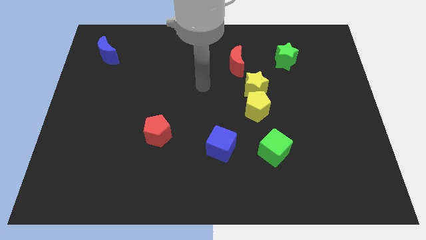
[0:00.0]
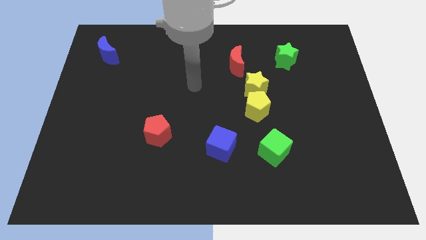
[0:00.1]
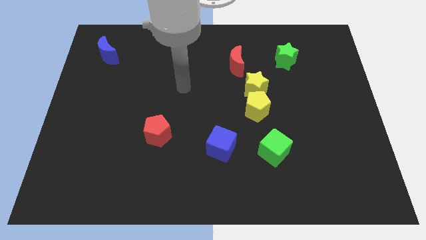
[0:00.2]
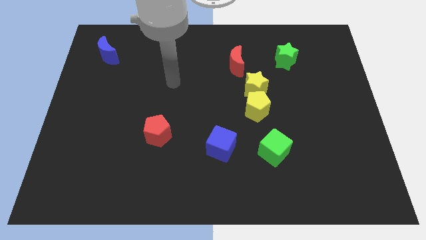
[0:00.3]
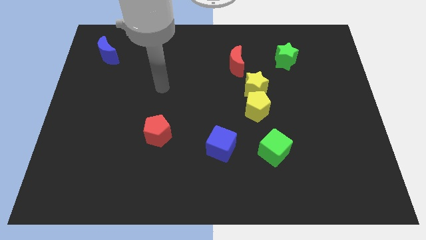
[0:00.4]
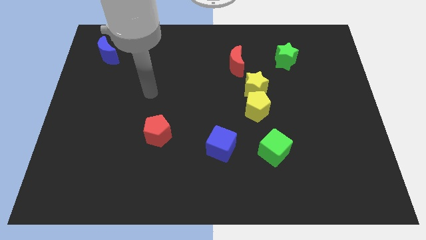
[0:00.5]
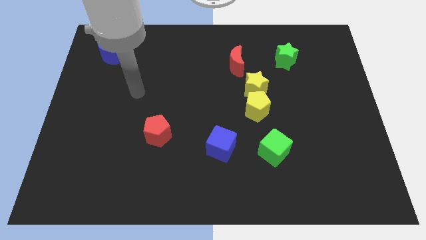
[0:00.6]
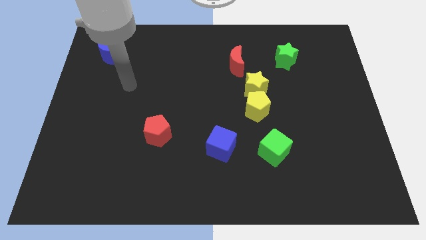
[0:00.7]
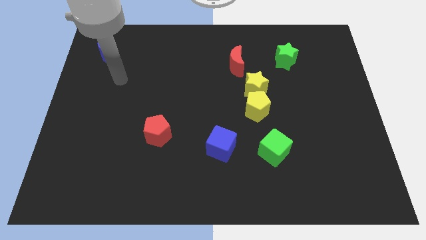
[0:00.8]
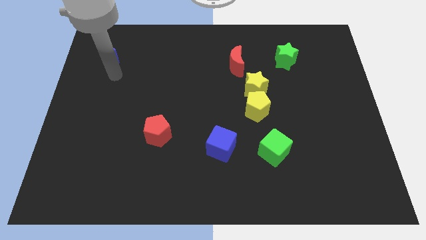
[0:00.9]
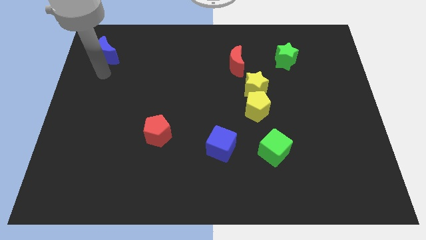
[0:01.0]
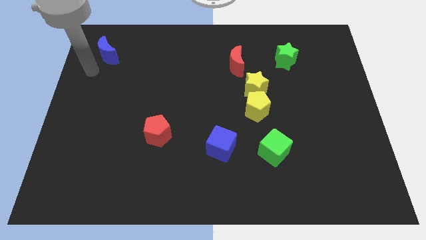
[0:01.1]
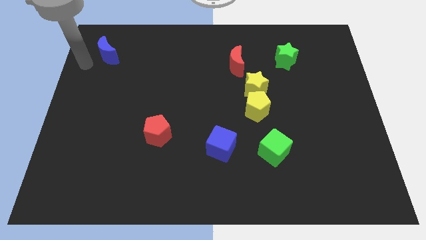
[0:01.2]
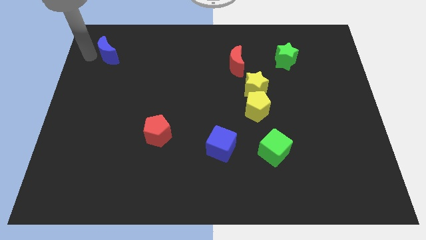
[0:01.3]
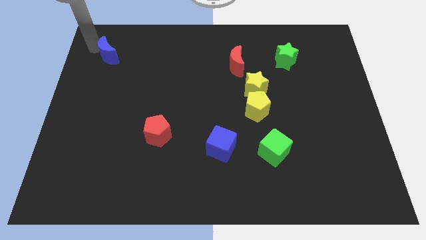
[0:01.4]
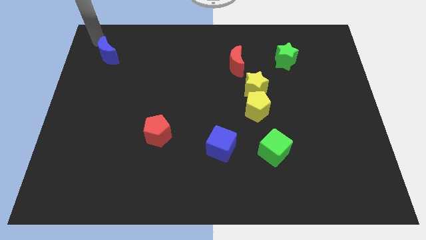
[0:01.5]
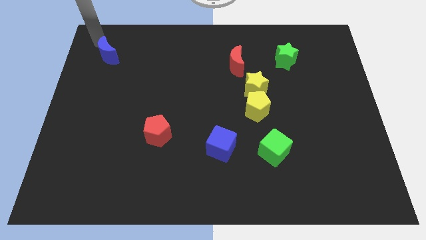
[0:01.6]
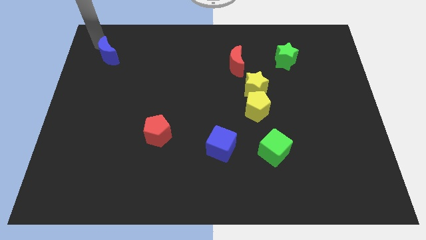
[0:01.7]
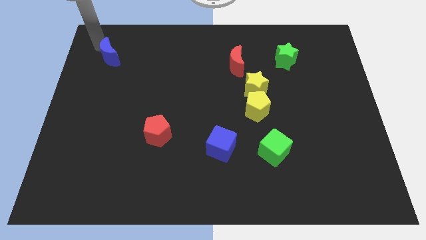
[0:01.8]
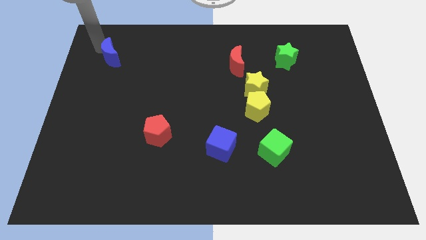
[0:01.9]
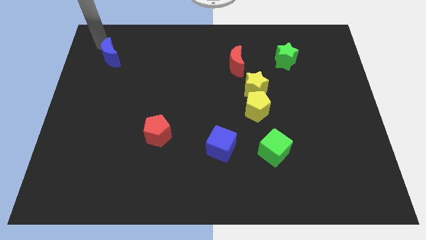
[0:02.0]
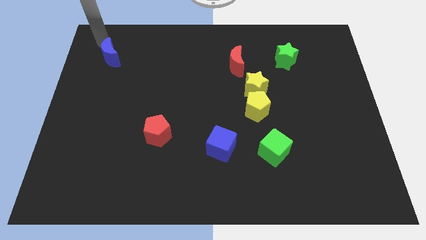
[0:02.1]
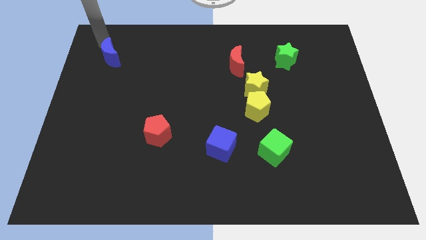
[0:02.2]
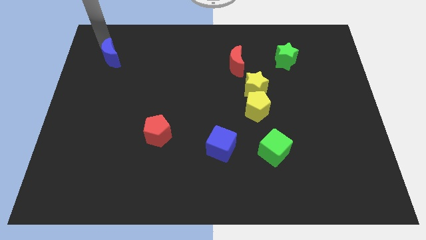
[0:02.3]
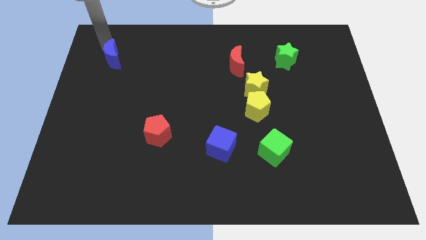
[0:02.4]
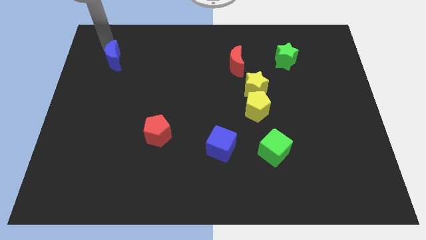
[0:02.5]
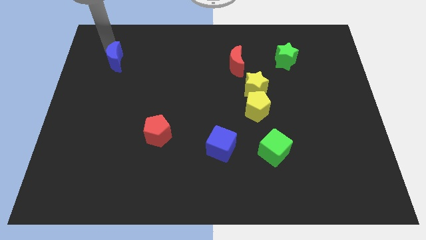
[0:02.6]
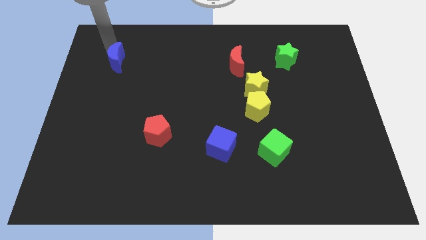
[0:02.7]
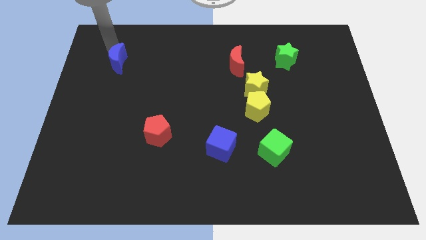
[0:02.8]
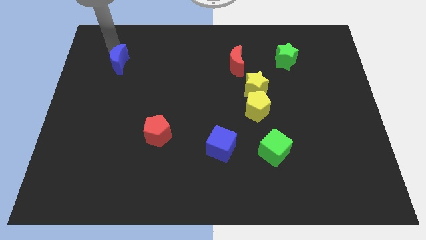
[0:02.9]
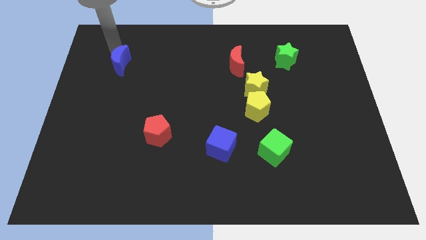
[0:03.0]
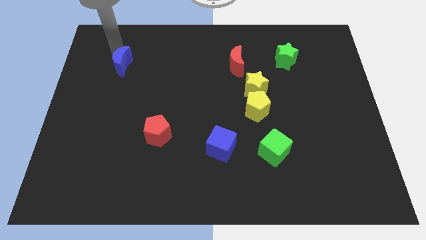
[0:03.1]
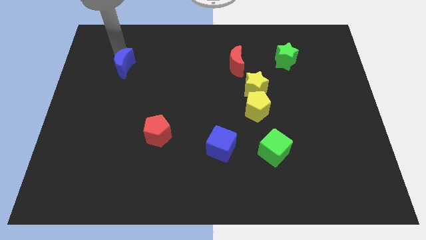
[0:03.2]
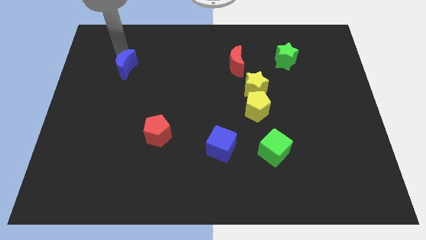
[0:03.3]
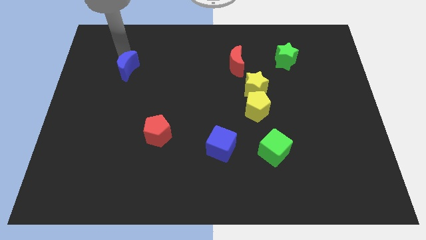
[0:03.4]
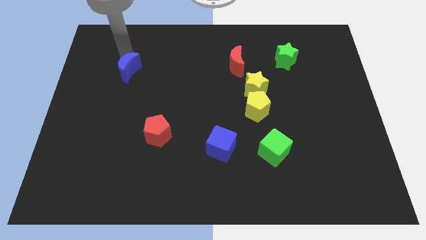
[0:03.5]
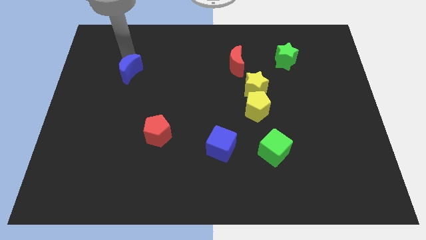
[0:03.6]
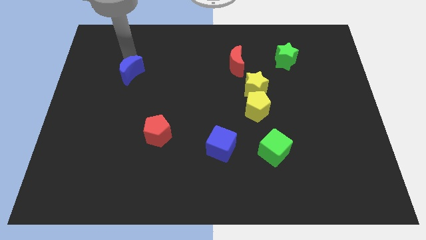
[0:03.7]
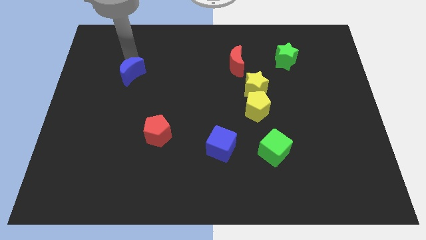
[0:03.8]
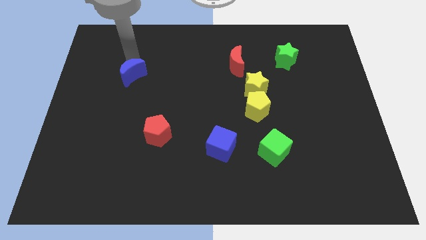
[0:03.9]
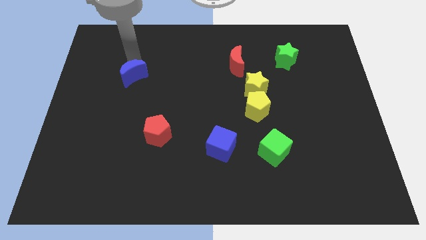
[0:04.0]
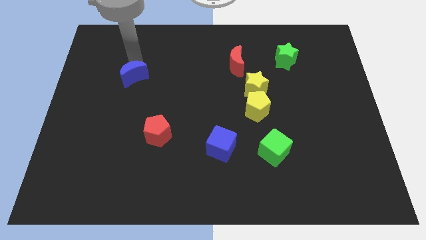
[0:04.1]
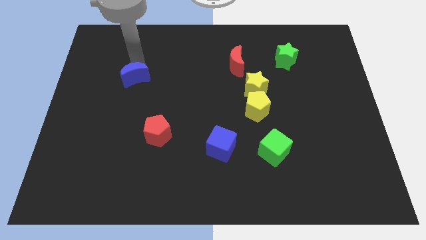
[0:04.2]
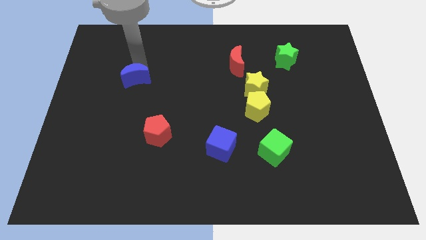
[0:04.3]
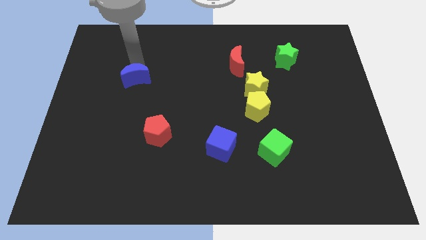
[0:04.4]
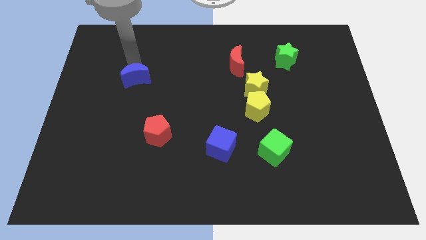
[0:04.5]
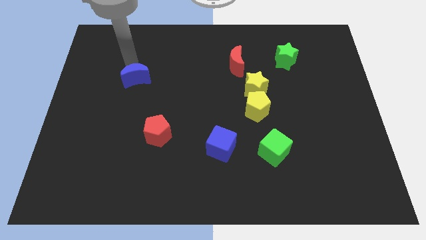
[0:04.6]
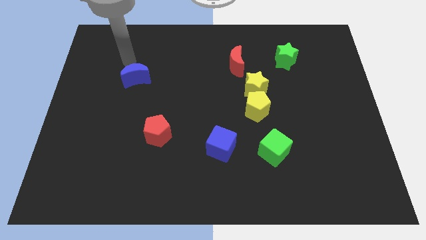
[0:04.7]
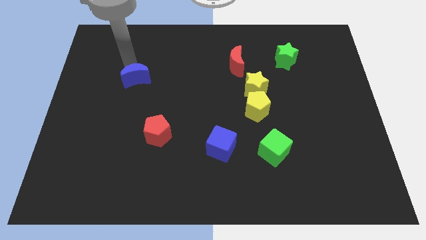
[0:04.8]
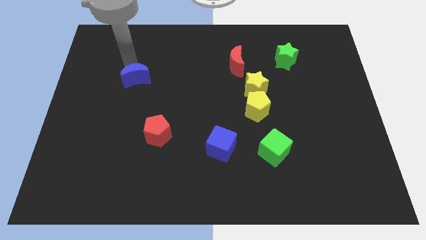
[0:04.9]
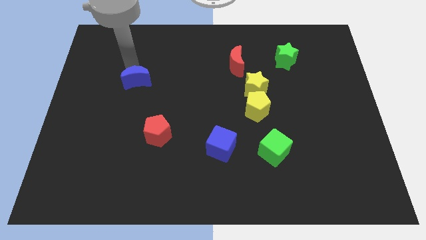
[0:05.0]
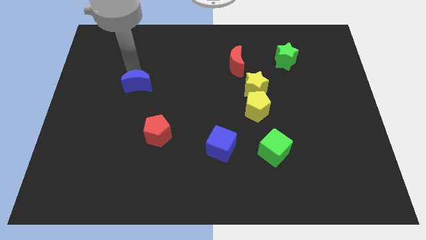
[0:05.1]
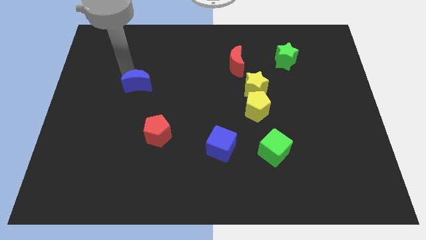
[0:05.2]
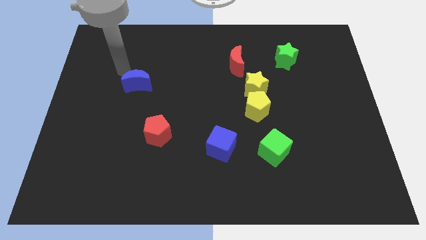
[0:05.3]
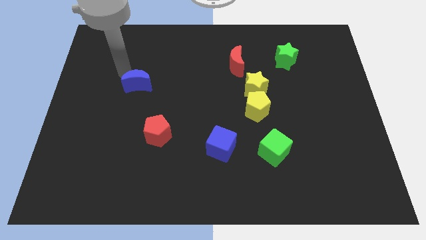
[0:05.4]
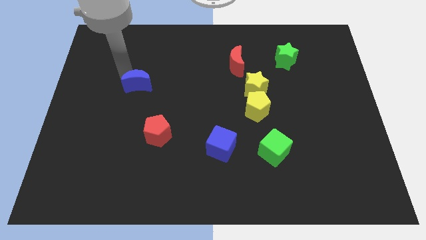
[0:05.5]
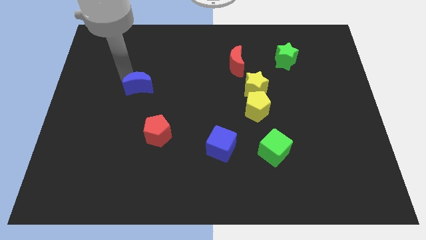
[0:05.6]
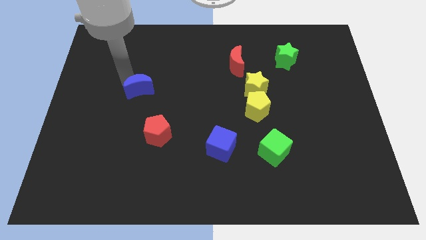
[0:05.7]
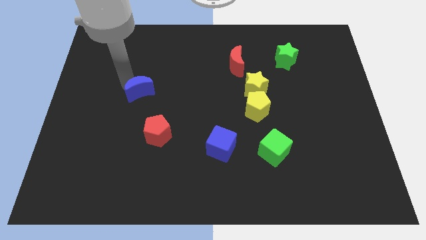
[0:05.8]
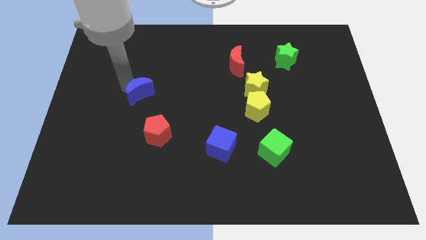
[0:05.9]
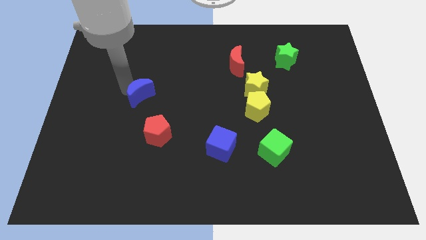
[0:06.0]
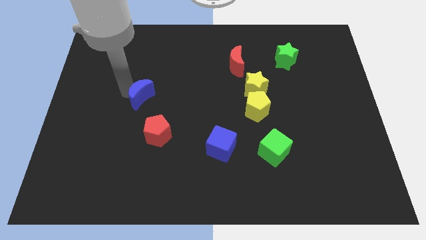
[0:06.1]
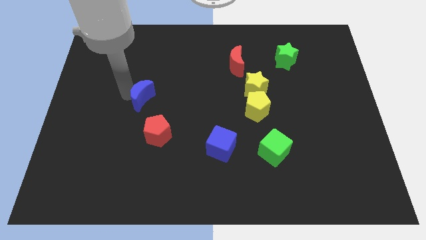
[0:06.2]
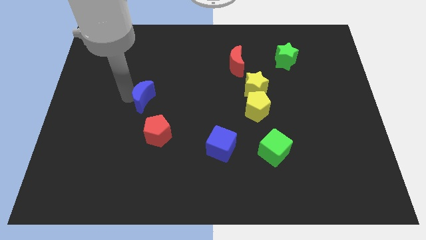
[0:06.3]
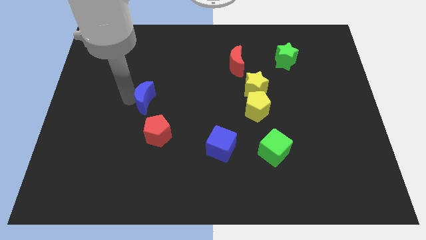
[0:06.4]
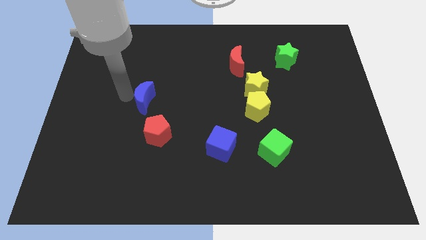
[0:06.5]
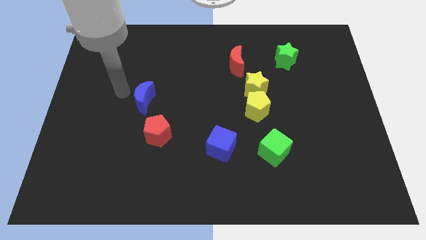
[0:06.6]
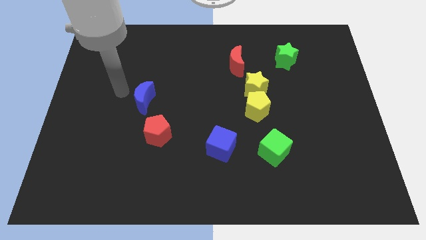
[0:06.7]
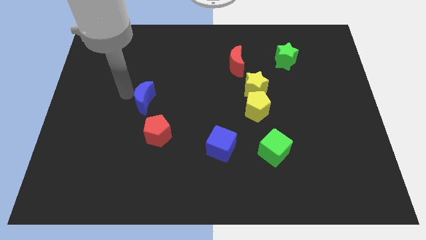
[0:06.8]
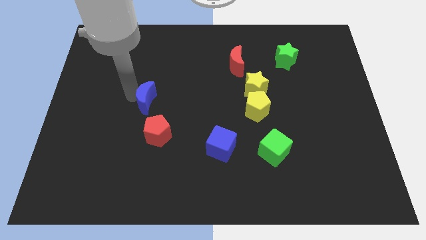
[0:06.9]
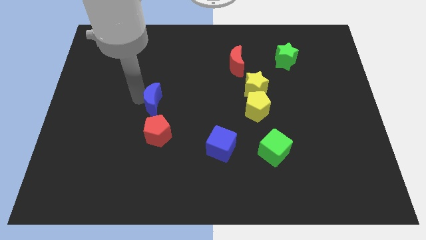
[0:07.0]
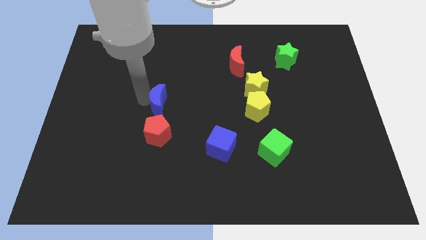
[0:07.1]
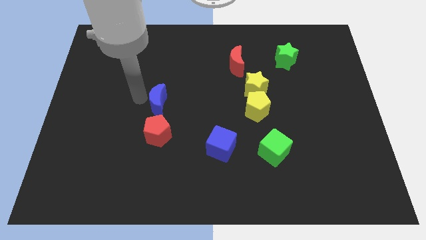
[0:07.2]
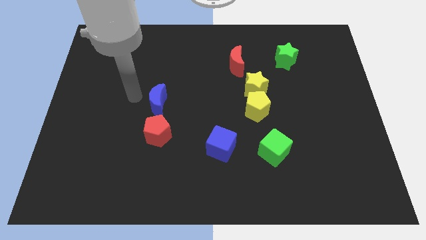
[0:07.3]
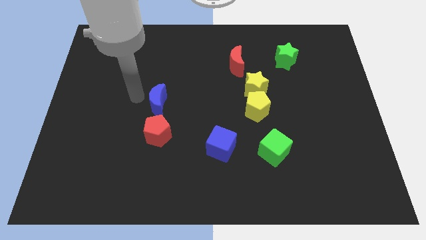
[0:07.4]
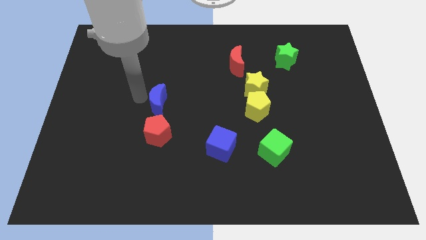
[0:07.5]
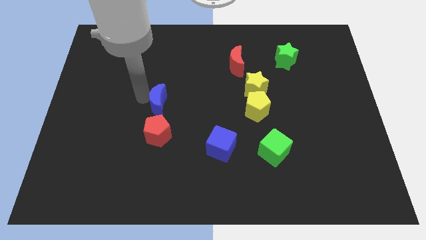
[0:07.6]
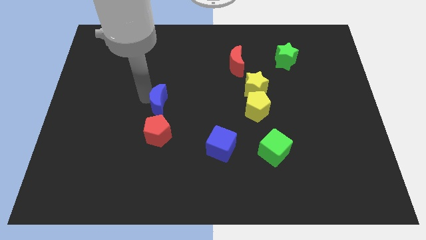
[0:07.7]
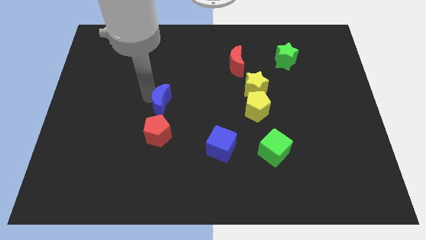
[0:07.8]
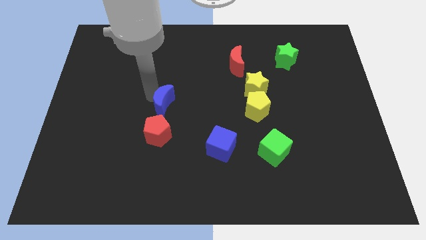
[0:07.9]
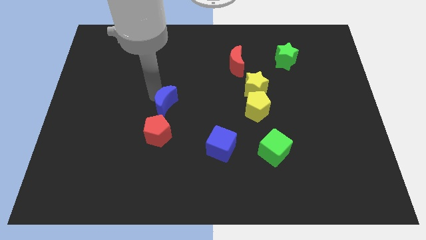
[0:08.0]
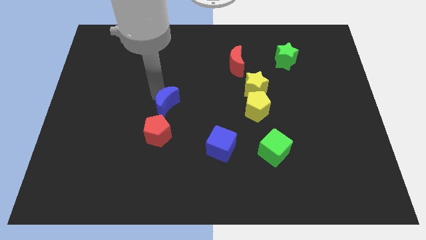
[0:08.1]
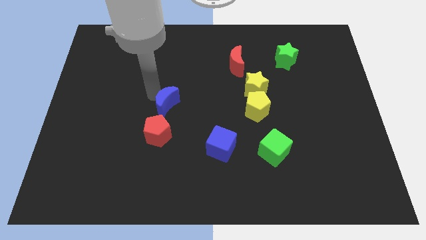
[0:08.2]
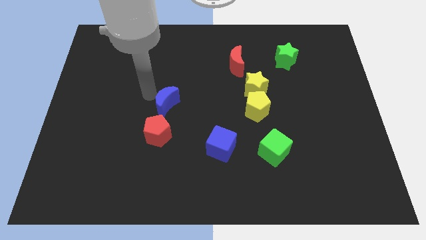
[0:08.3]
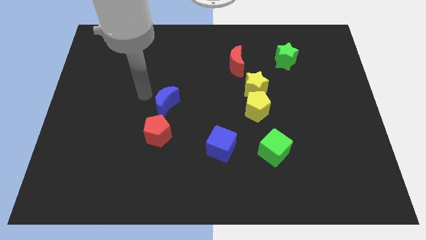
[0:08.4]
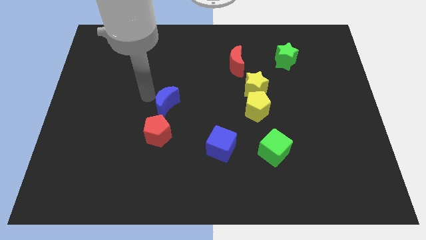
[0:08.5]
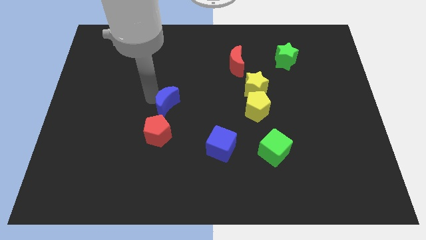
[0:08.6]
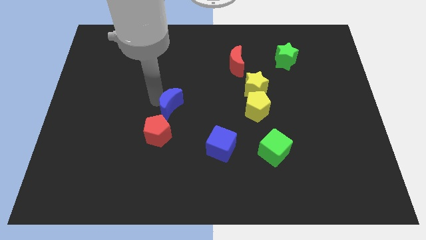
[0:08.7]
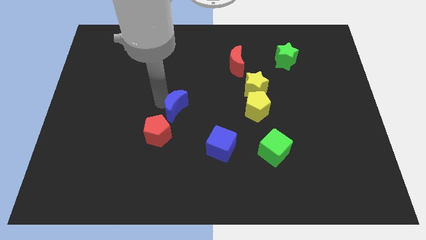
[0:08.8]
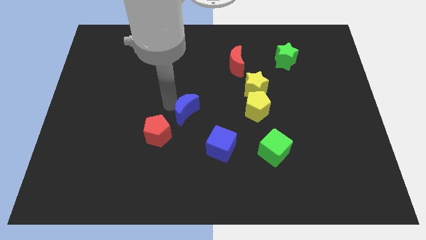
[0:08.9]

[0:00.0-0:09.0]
put the blue moon to the top left of the blue cube
